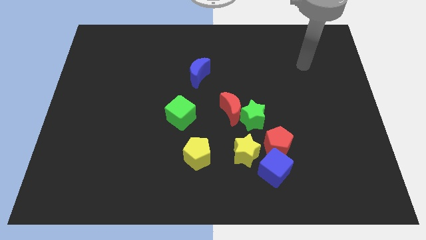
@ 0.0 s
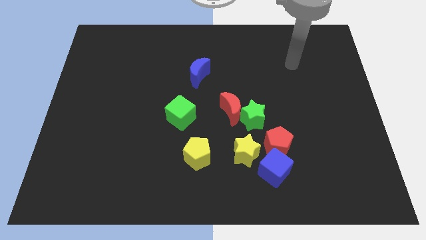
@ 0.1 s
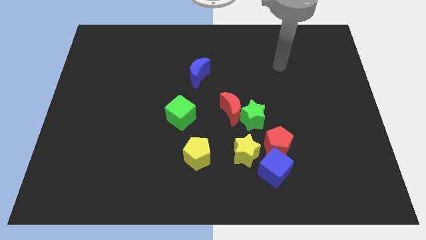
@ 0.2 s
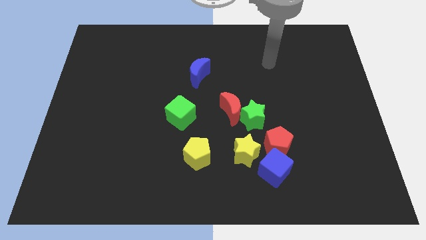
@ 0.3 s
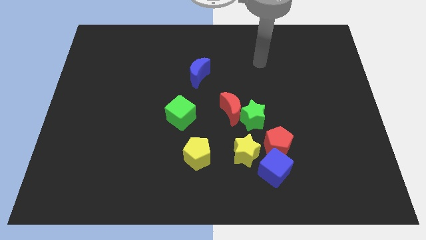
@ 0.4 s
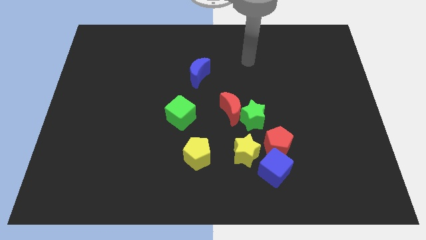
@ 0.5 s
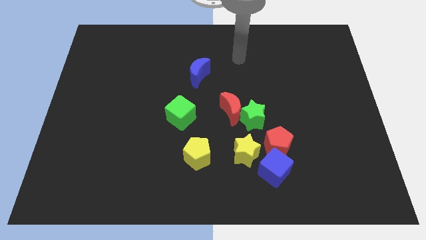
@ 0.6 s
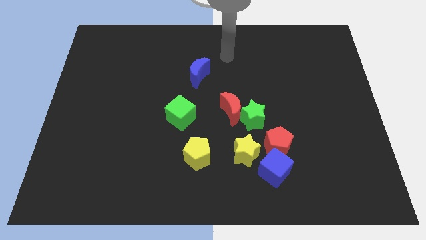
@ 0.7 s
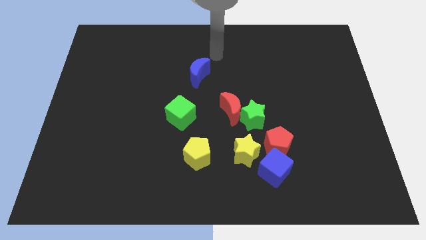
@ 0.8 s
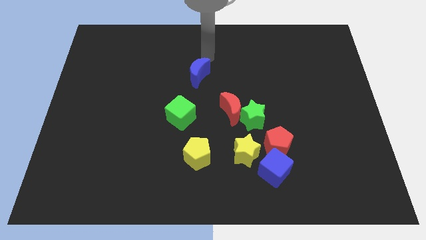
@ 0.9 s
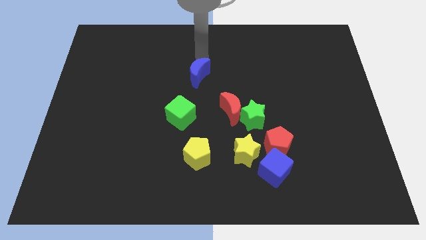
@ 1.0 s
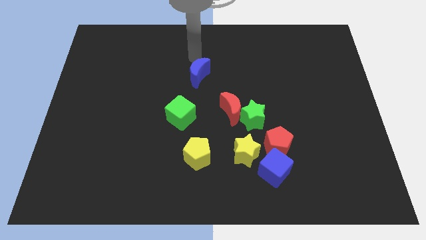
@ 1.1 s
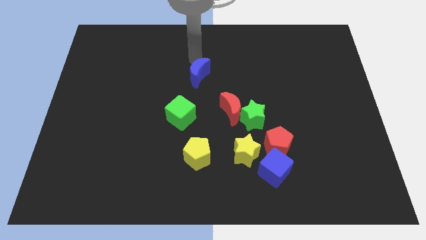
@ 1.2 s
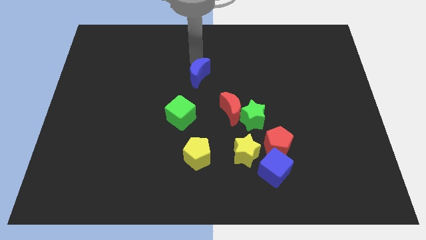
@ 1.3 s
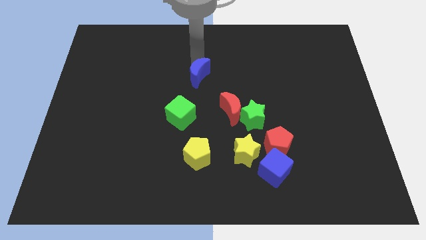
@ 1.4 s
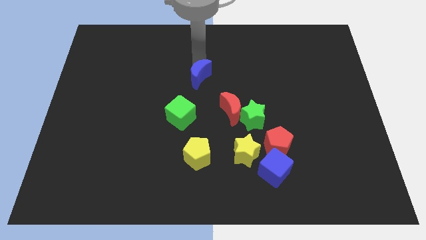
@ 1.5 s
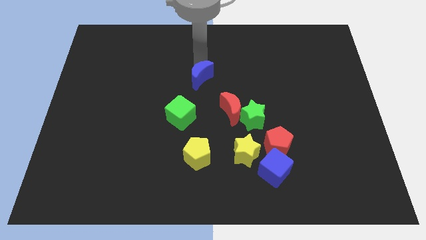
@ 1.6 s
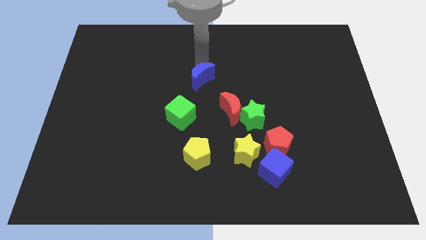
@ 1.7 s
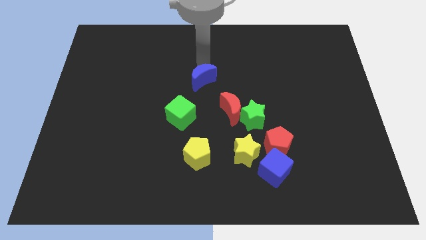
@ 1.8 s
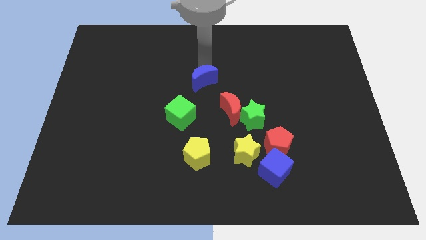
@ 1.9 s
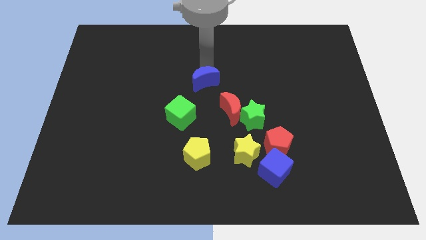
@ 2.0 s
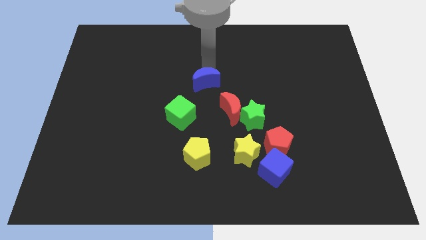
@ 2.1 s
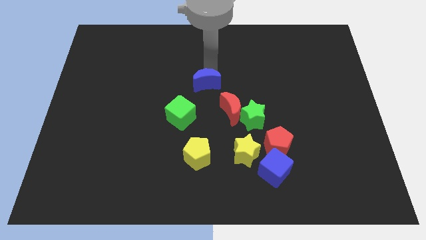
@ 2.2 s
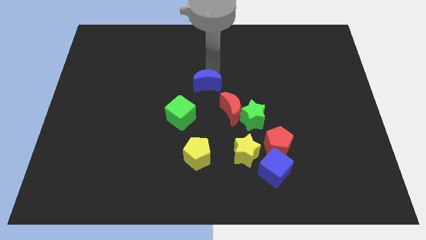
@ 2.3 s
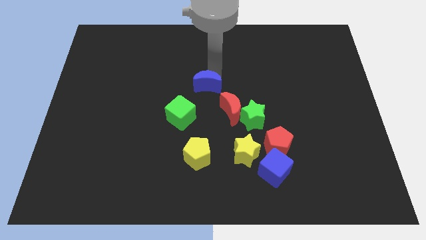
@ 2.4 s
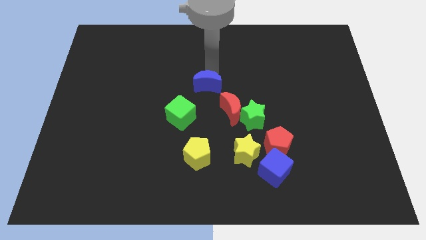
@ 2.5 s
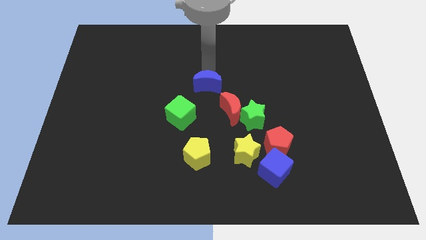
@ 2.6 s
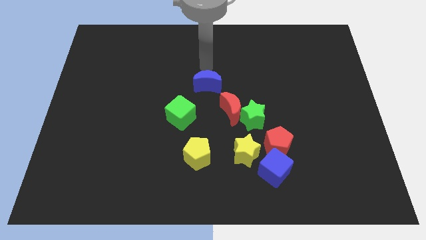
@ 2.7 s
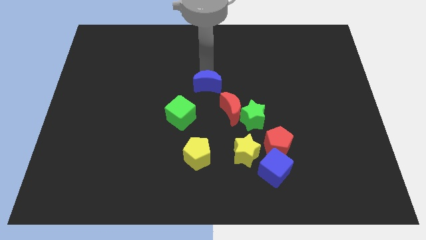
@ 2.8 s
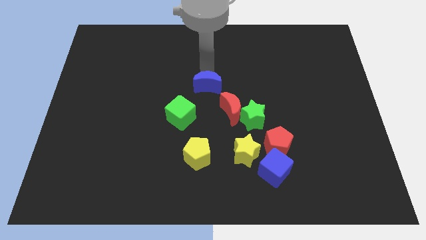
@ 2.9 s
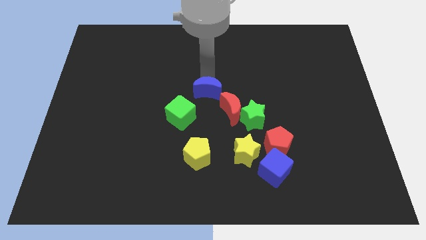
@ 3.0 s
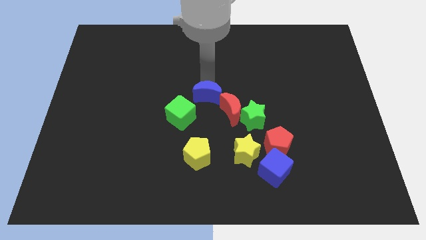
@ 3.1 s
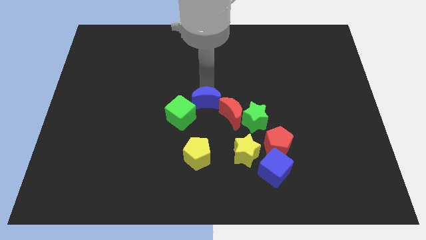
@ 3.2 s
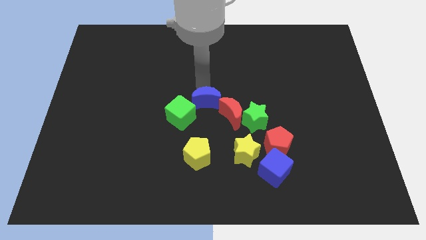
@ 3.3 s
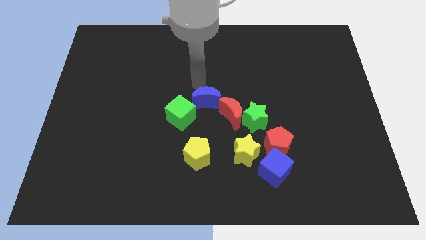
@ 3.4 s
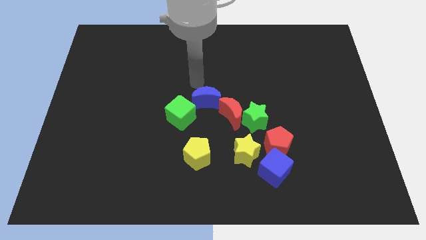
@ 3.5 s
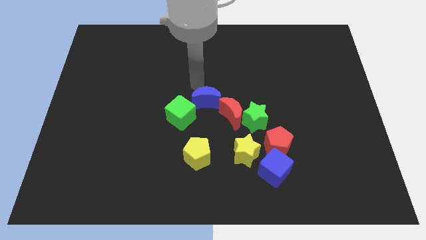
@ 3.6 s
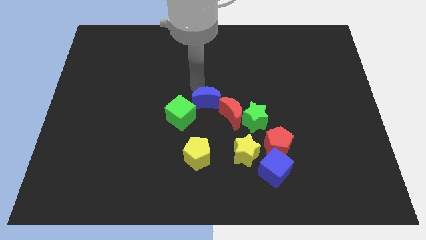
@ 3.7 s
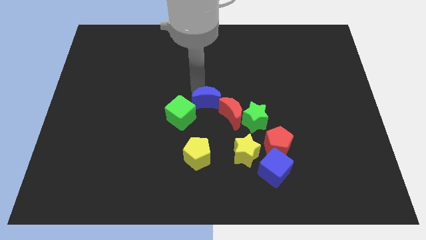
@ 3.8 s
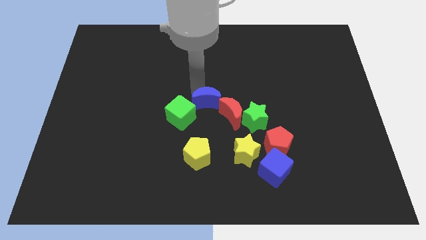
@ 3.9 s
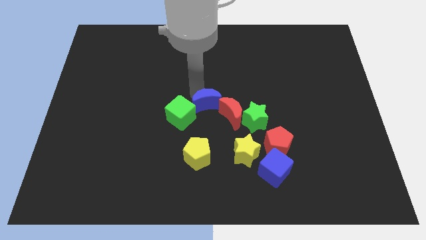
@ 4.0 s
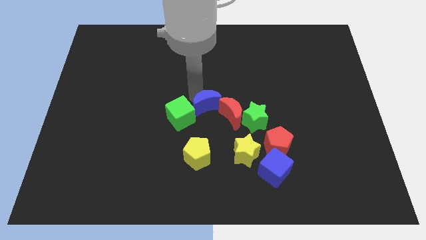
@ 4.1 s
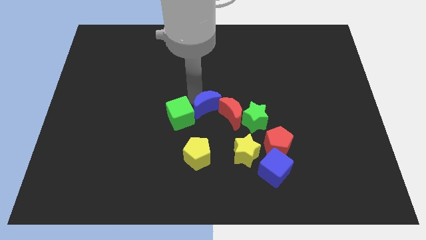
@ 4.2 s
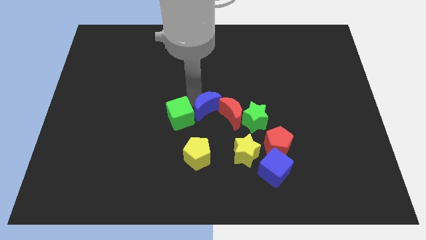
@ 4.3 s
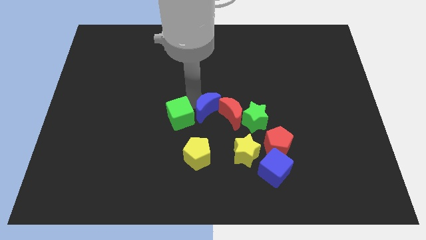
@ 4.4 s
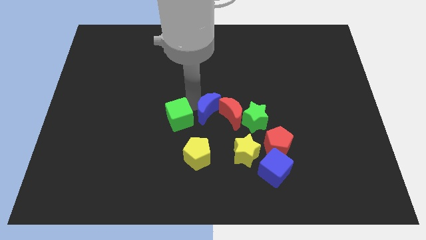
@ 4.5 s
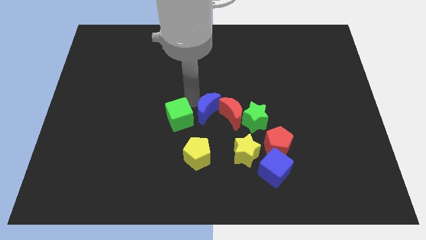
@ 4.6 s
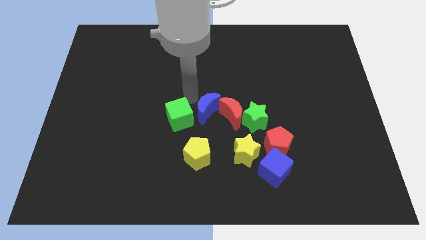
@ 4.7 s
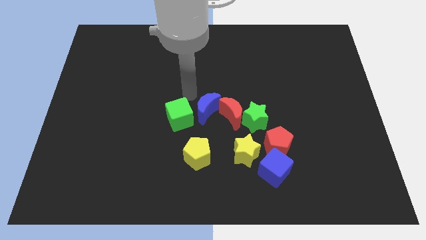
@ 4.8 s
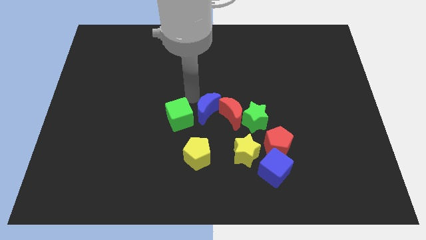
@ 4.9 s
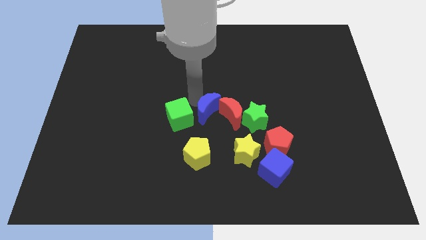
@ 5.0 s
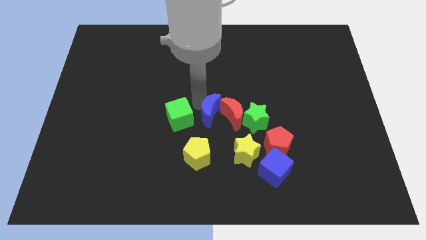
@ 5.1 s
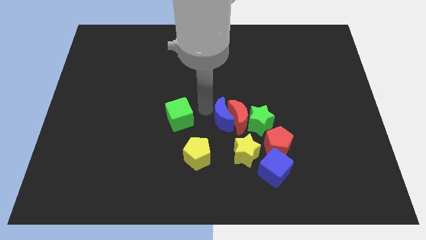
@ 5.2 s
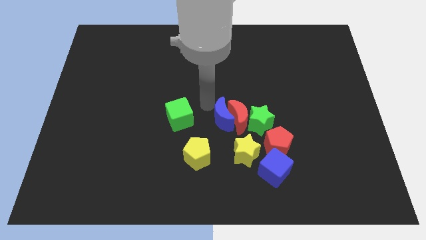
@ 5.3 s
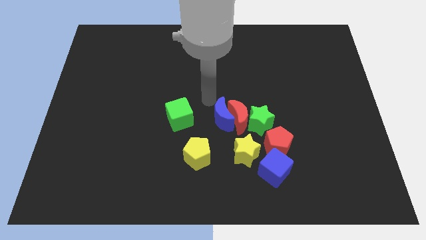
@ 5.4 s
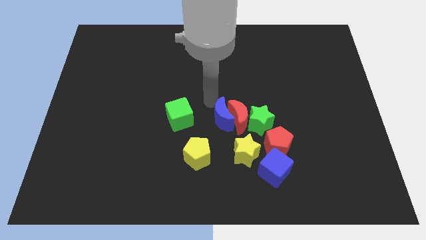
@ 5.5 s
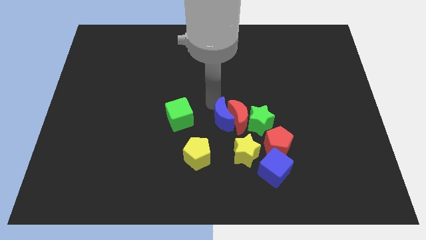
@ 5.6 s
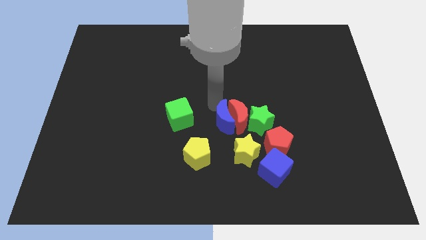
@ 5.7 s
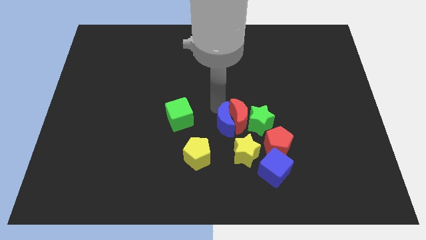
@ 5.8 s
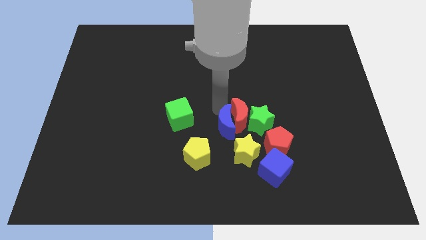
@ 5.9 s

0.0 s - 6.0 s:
push the blue moon diagonally down and to the left of the green star

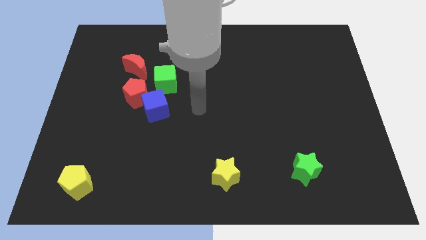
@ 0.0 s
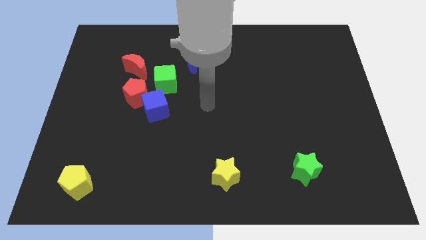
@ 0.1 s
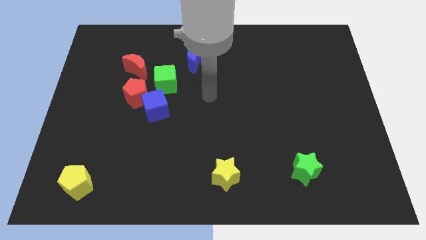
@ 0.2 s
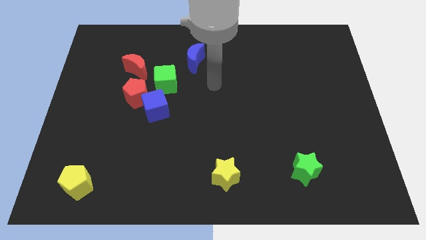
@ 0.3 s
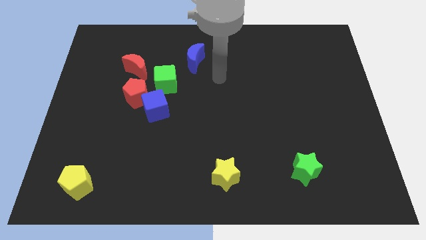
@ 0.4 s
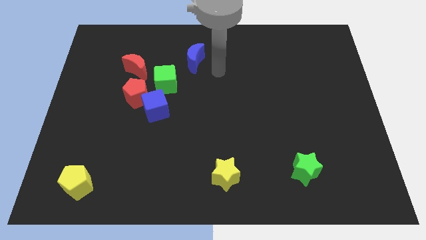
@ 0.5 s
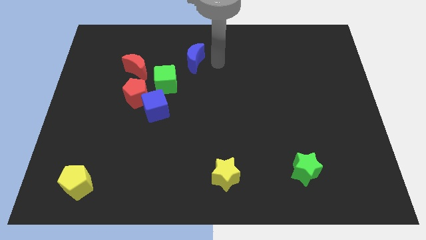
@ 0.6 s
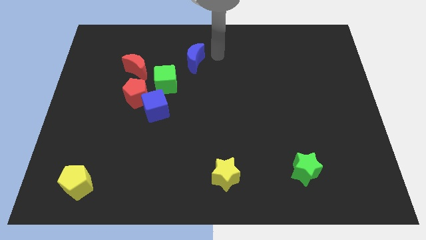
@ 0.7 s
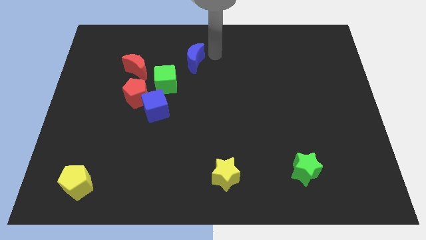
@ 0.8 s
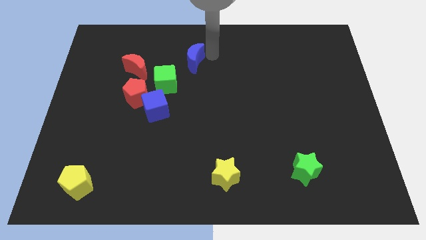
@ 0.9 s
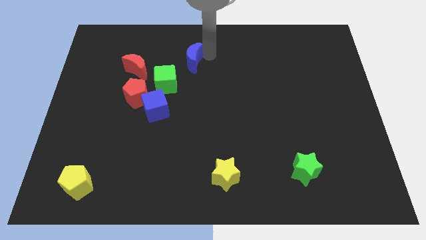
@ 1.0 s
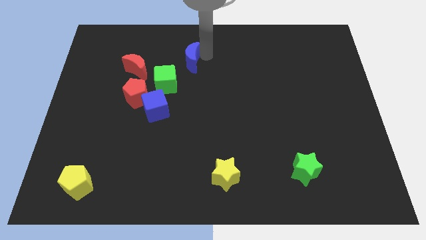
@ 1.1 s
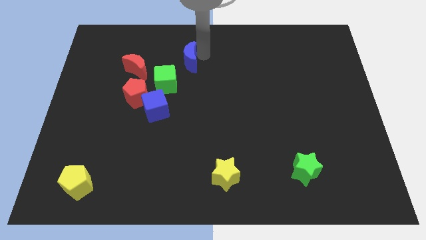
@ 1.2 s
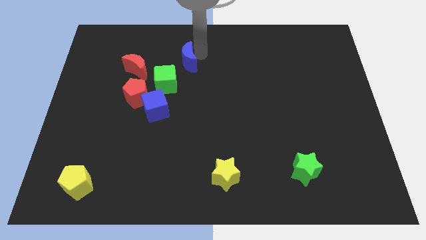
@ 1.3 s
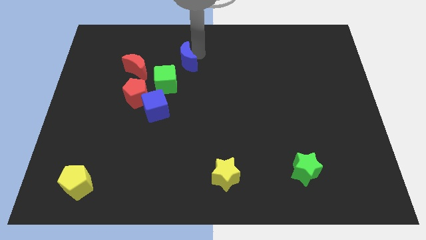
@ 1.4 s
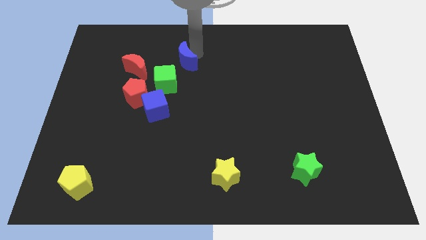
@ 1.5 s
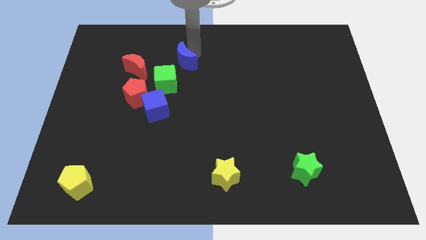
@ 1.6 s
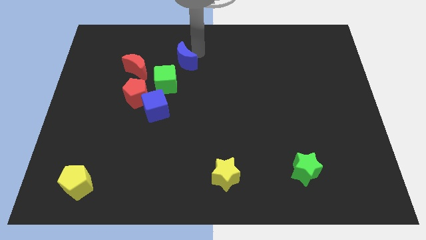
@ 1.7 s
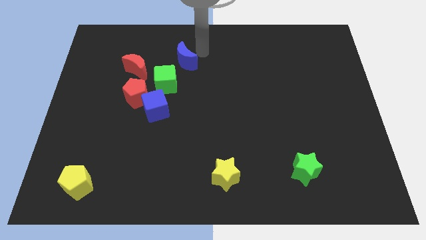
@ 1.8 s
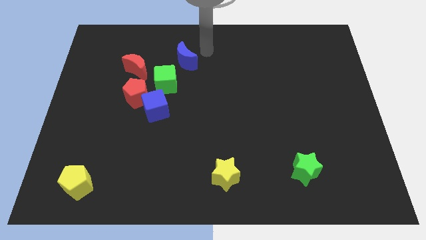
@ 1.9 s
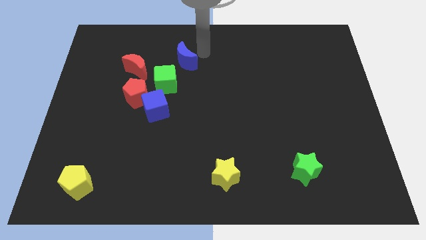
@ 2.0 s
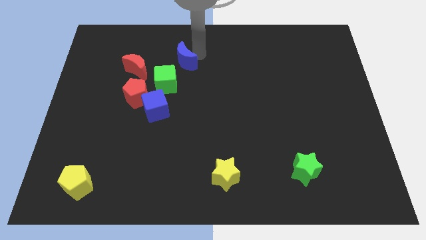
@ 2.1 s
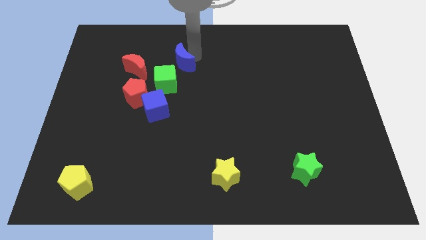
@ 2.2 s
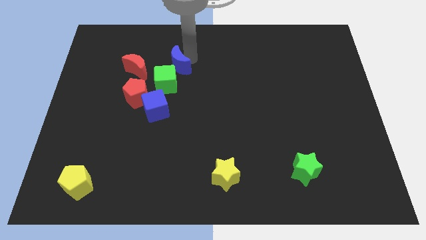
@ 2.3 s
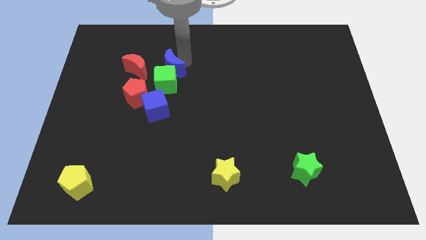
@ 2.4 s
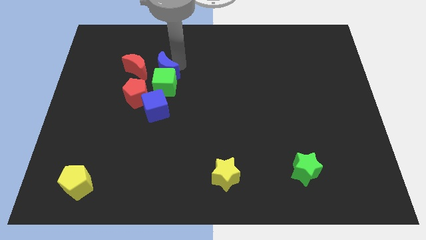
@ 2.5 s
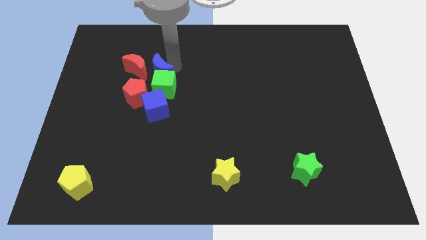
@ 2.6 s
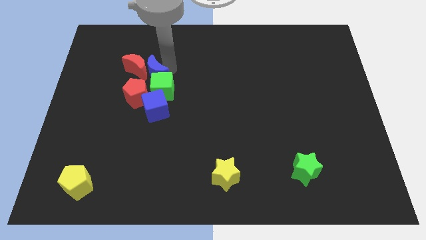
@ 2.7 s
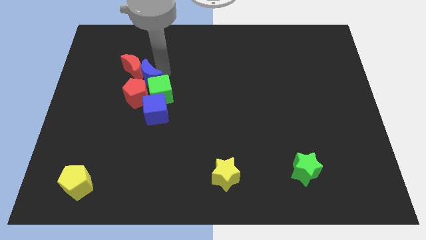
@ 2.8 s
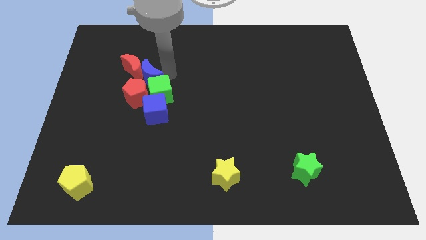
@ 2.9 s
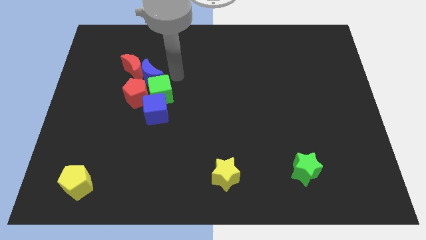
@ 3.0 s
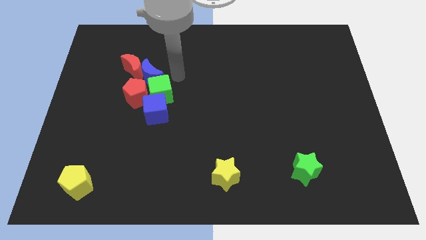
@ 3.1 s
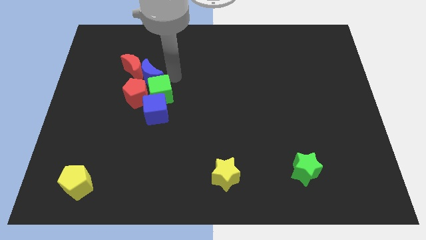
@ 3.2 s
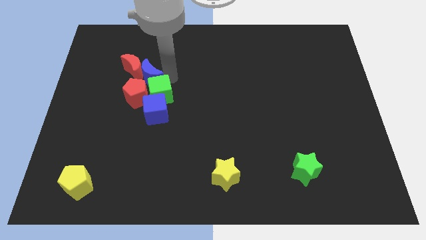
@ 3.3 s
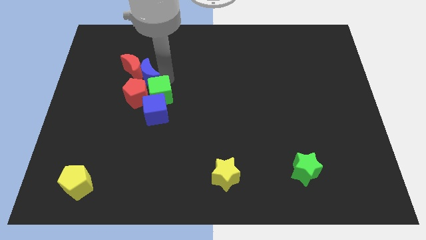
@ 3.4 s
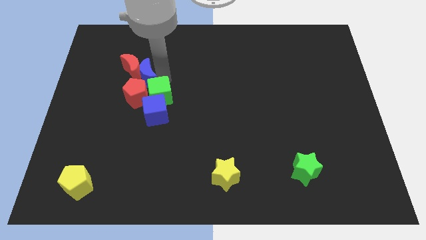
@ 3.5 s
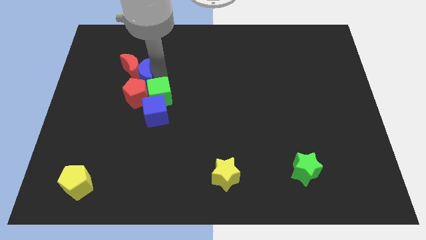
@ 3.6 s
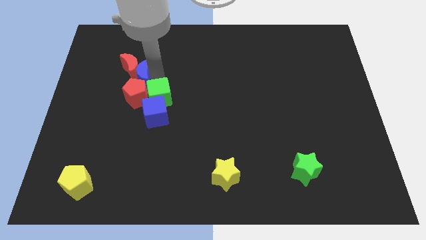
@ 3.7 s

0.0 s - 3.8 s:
put the blue moon diagonally up and to the left of the red pentagon